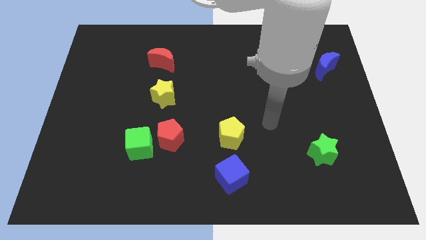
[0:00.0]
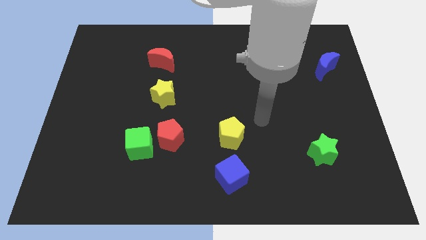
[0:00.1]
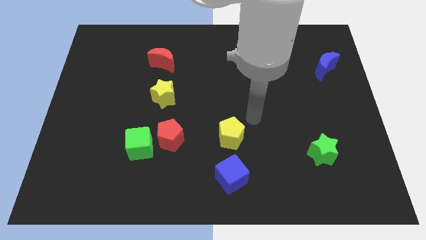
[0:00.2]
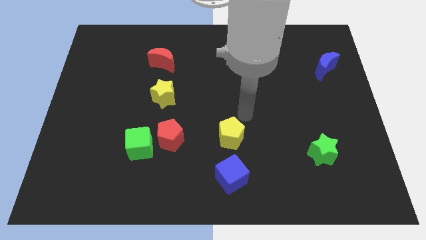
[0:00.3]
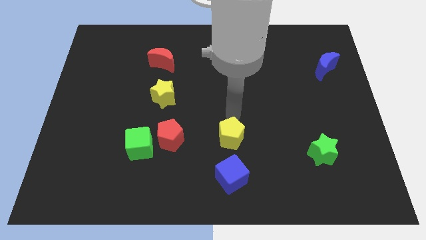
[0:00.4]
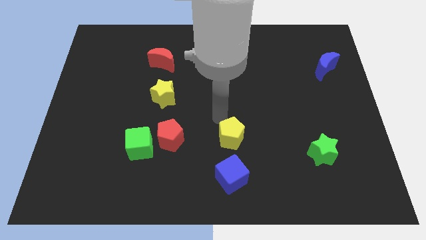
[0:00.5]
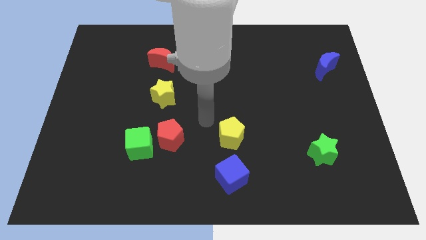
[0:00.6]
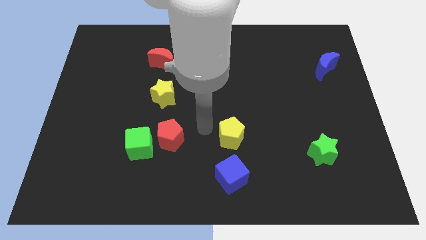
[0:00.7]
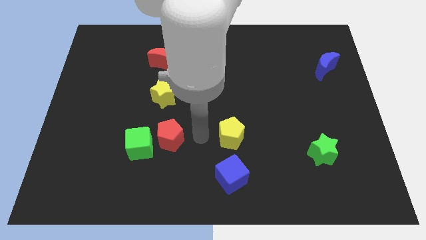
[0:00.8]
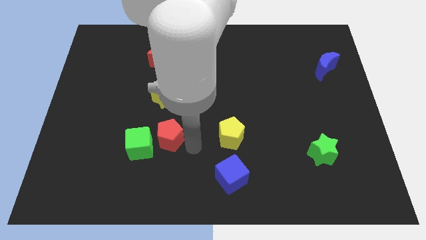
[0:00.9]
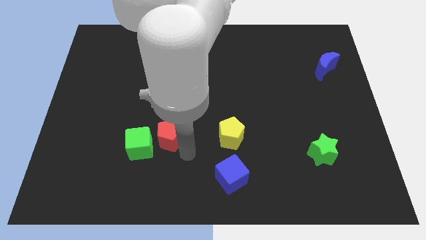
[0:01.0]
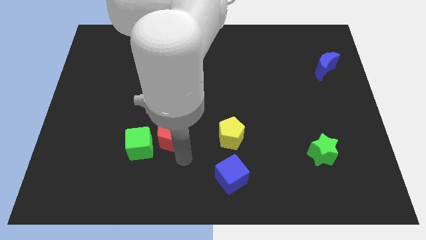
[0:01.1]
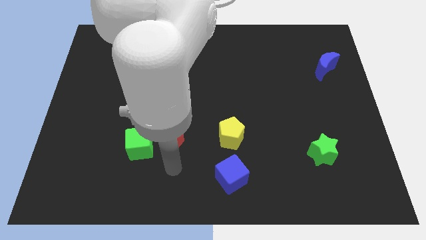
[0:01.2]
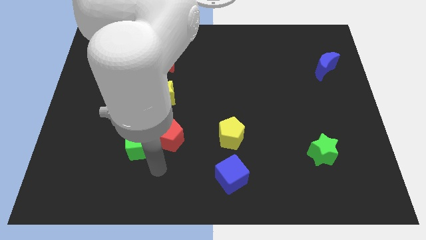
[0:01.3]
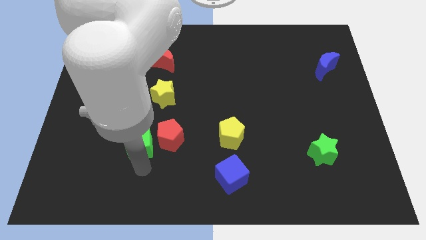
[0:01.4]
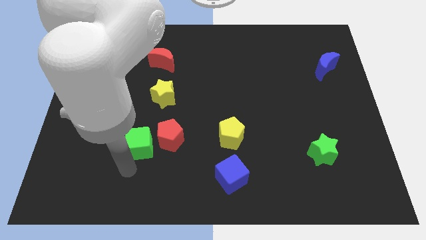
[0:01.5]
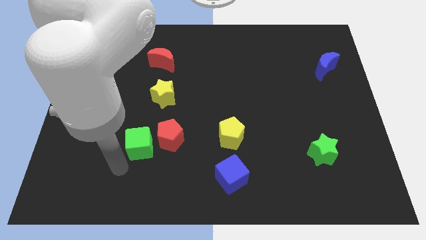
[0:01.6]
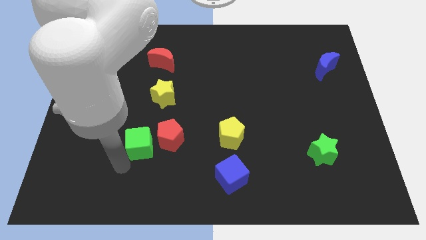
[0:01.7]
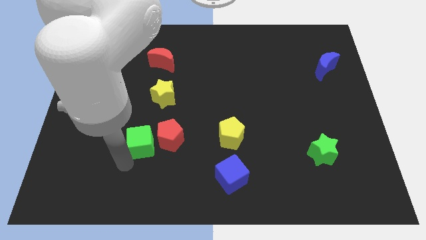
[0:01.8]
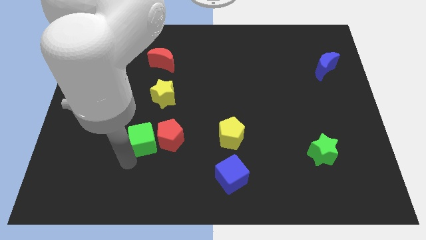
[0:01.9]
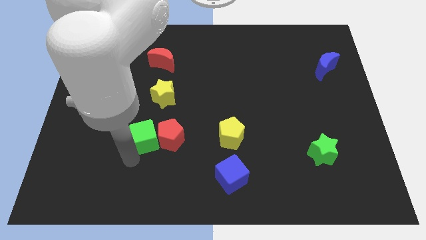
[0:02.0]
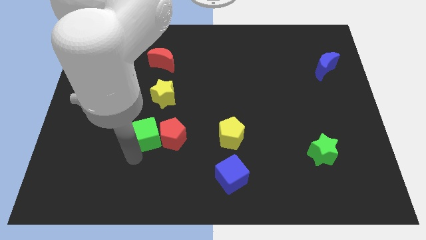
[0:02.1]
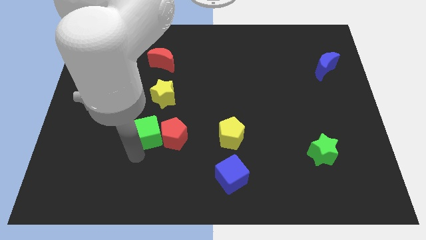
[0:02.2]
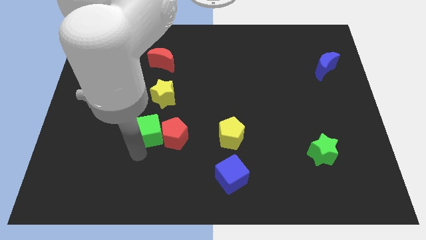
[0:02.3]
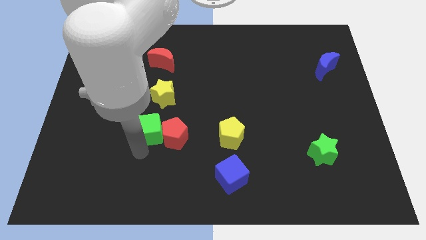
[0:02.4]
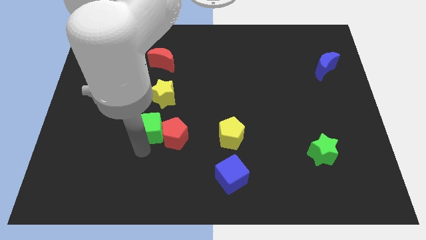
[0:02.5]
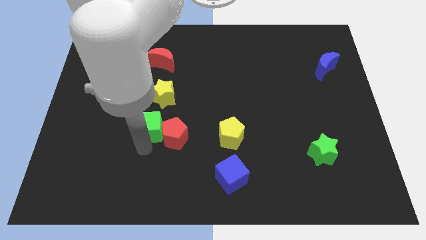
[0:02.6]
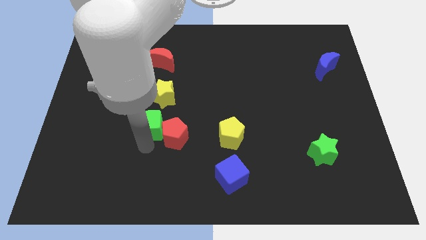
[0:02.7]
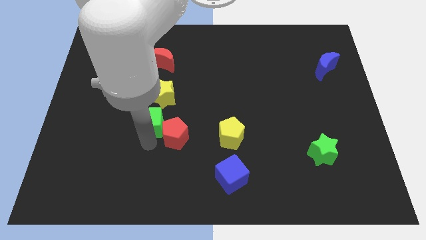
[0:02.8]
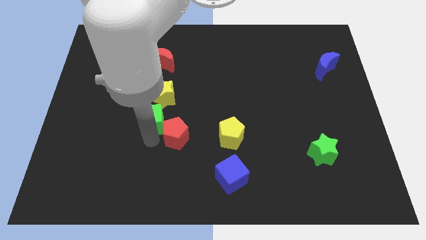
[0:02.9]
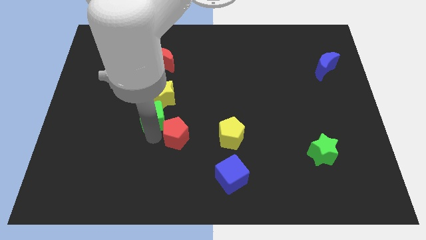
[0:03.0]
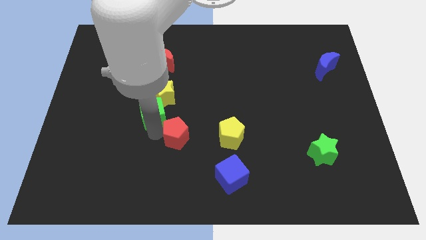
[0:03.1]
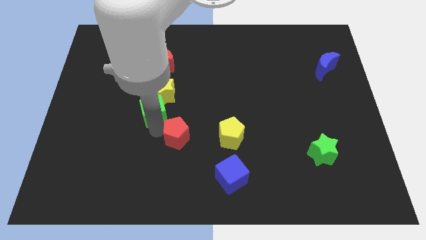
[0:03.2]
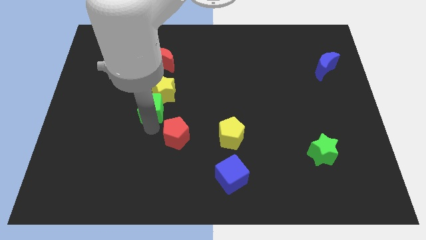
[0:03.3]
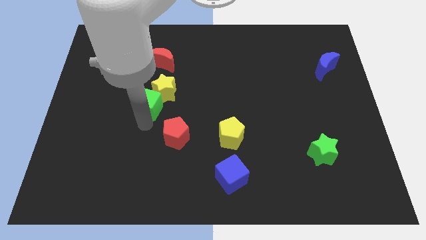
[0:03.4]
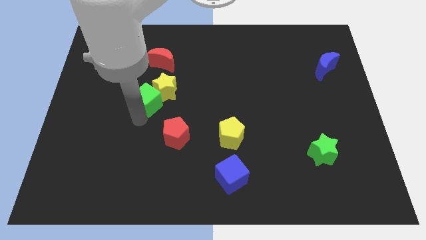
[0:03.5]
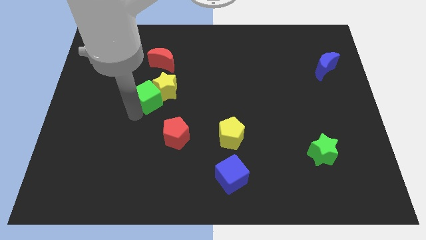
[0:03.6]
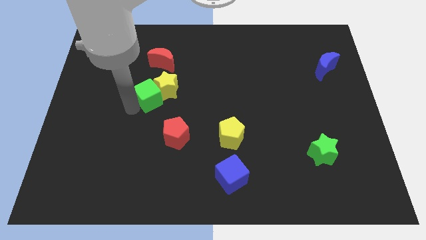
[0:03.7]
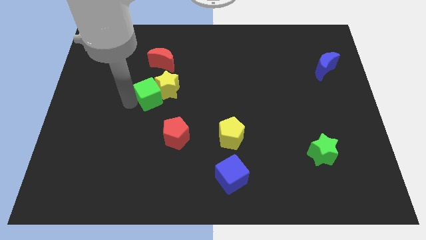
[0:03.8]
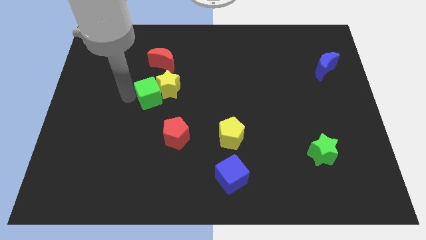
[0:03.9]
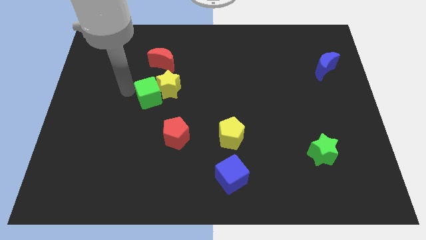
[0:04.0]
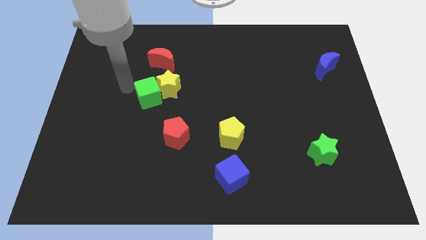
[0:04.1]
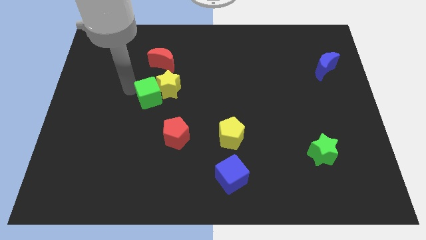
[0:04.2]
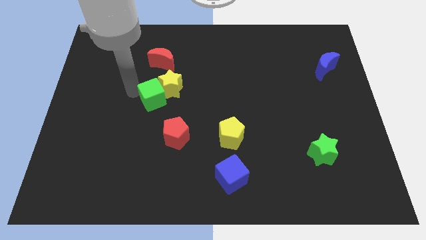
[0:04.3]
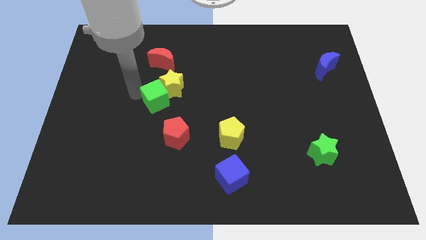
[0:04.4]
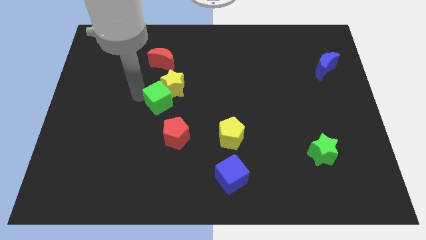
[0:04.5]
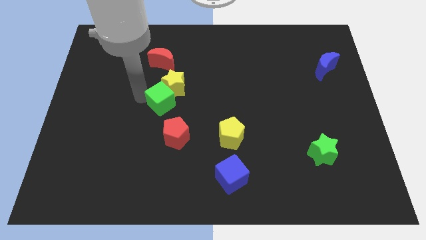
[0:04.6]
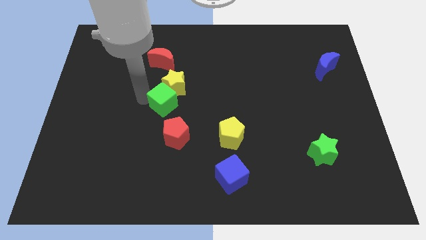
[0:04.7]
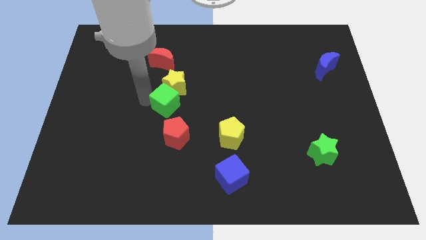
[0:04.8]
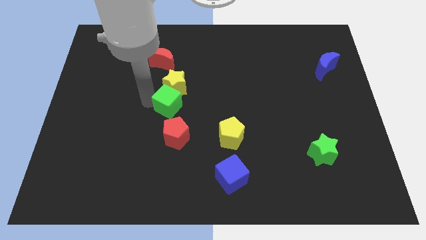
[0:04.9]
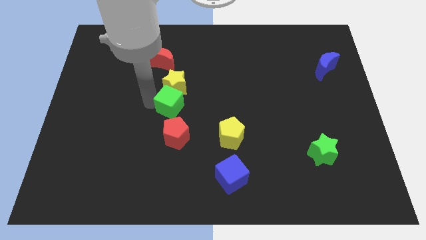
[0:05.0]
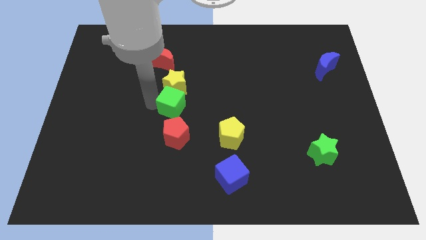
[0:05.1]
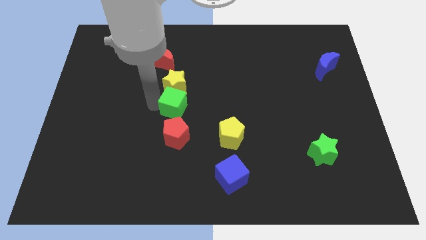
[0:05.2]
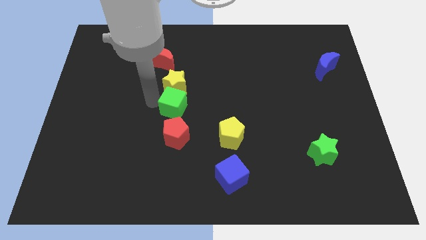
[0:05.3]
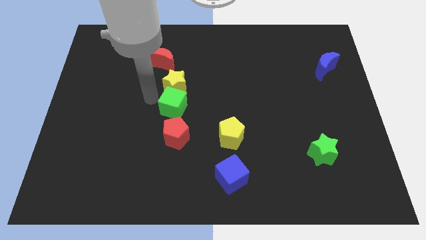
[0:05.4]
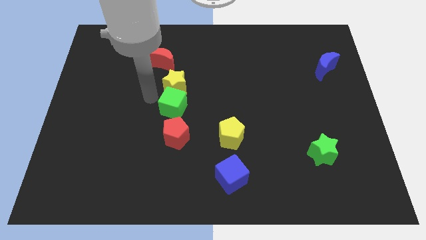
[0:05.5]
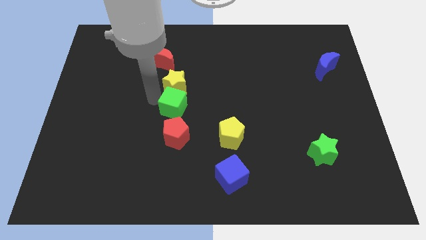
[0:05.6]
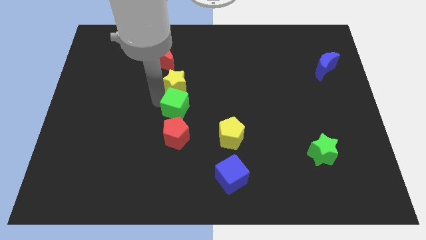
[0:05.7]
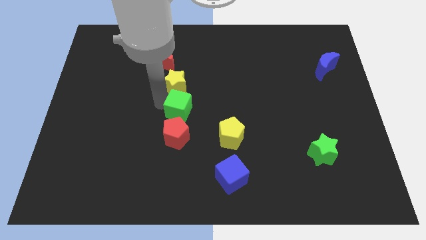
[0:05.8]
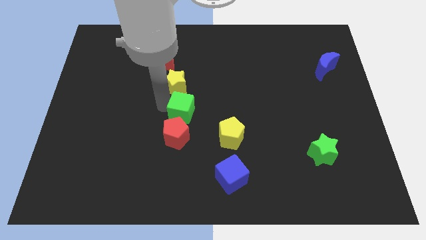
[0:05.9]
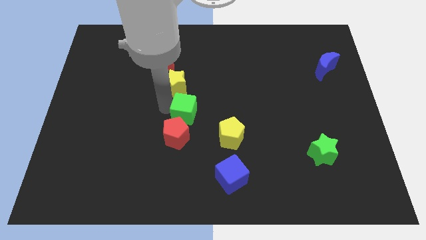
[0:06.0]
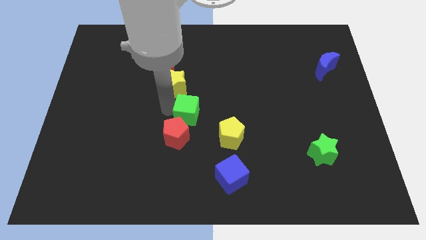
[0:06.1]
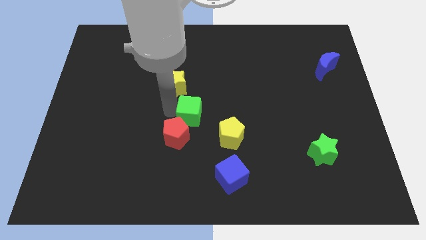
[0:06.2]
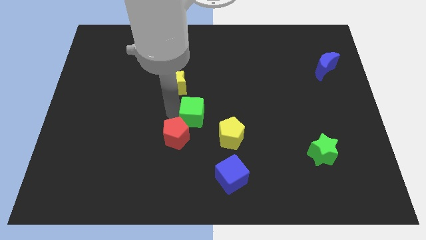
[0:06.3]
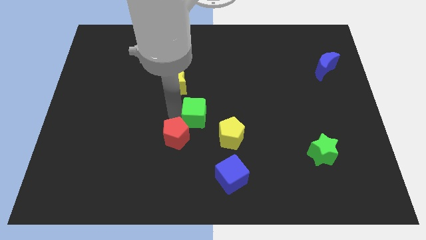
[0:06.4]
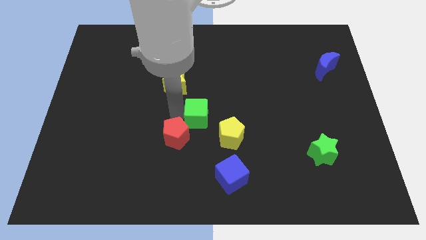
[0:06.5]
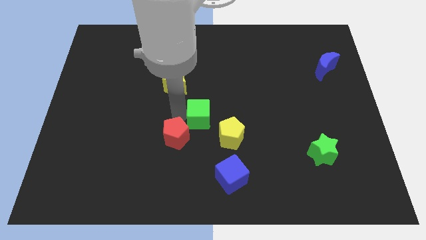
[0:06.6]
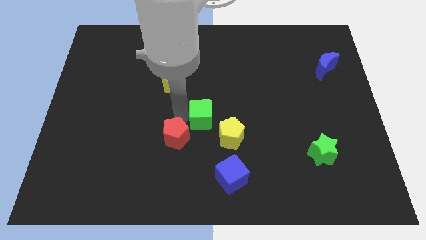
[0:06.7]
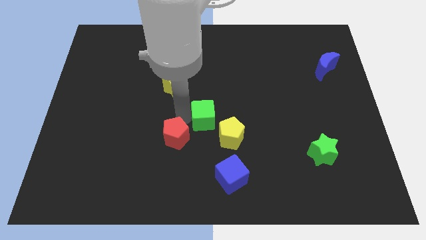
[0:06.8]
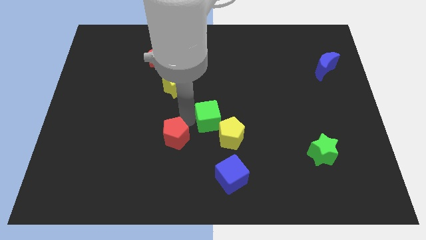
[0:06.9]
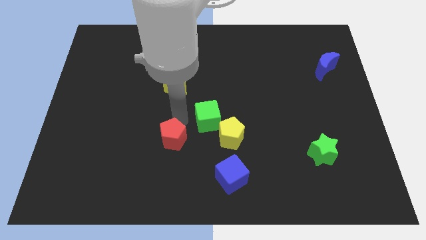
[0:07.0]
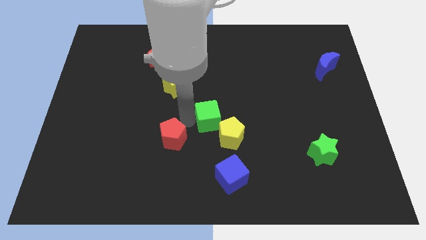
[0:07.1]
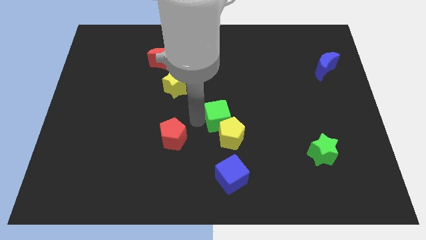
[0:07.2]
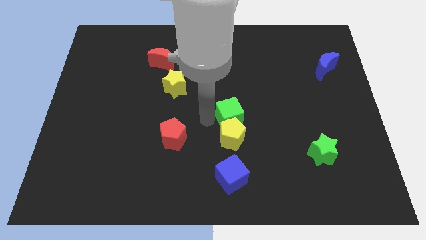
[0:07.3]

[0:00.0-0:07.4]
move the green cube to the top right of the yellow pentagon
